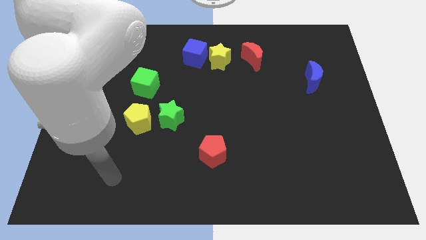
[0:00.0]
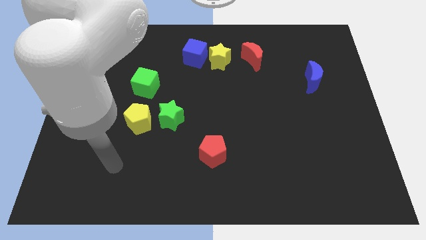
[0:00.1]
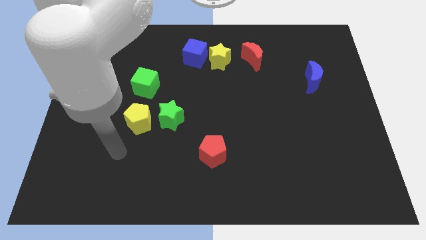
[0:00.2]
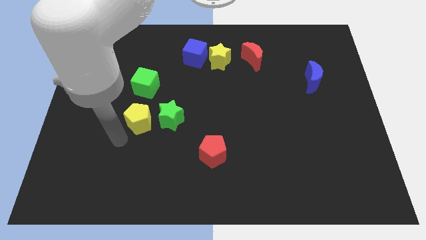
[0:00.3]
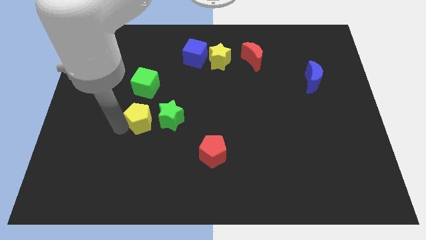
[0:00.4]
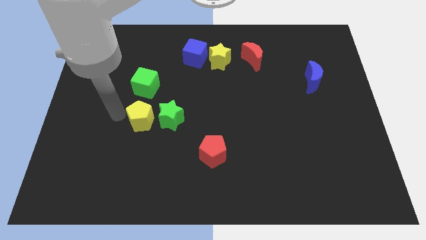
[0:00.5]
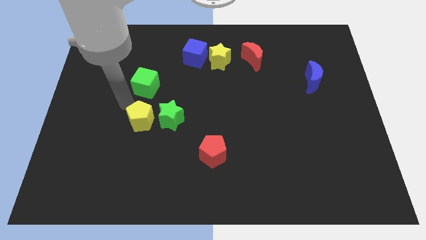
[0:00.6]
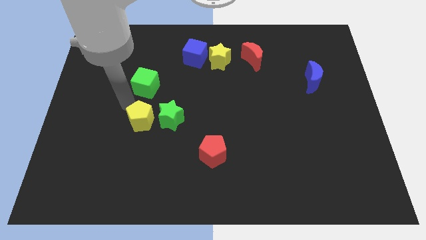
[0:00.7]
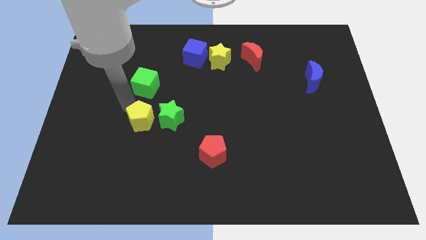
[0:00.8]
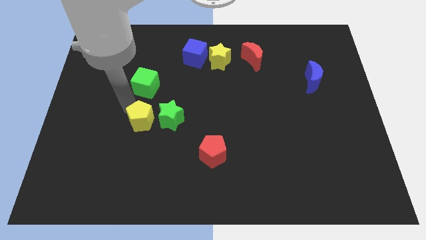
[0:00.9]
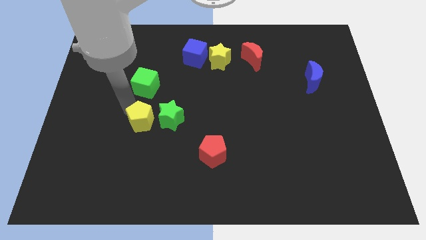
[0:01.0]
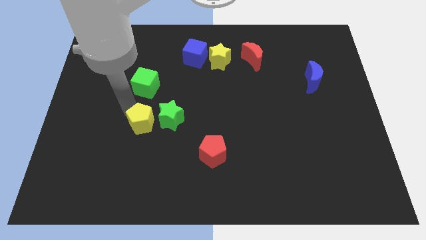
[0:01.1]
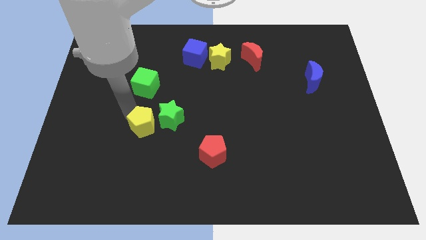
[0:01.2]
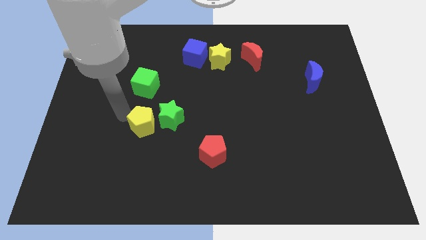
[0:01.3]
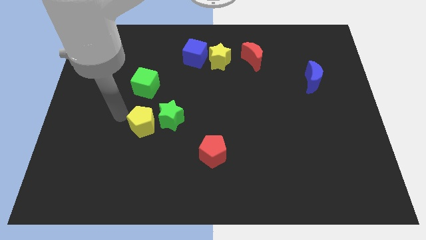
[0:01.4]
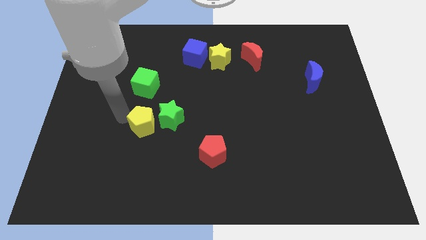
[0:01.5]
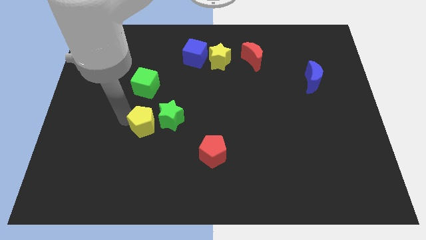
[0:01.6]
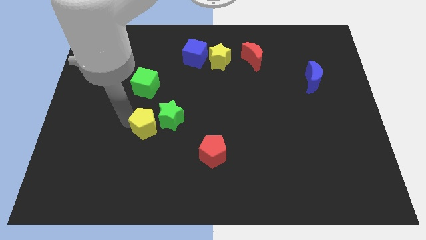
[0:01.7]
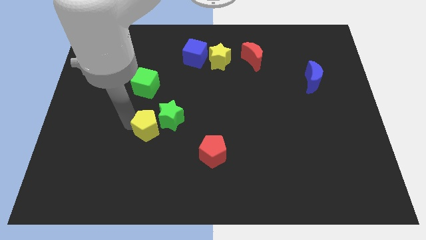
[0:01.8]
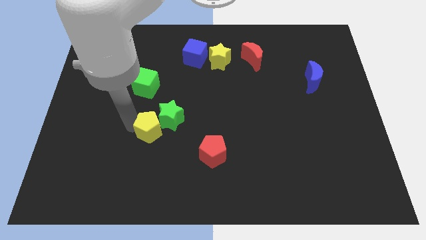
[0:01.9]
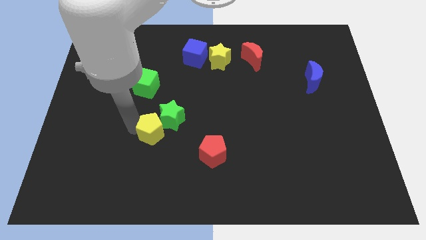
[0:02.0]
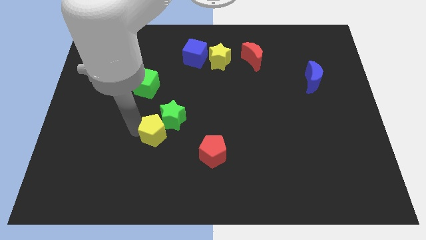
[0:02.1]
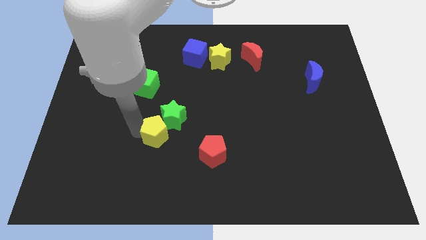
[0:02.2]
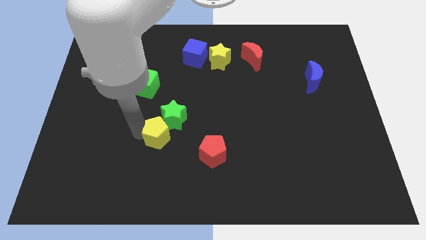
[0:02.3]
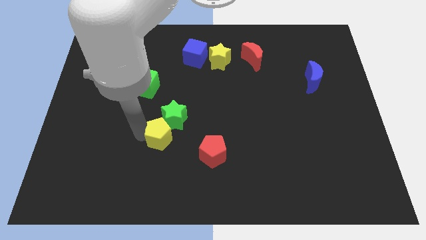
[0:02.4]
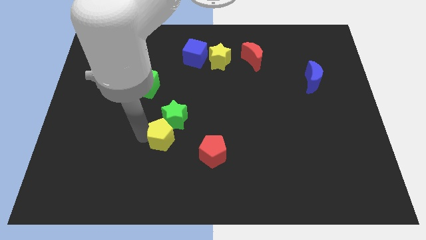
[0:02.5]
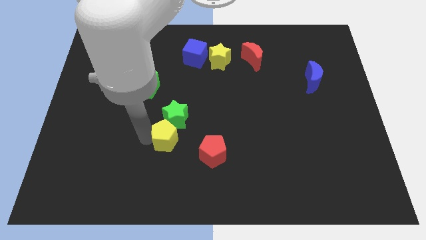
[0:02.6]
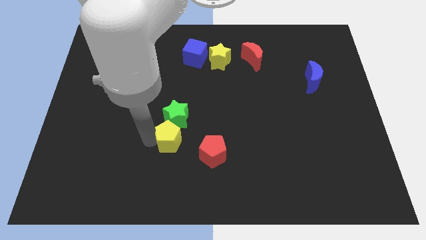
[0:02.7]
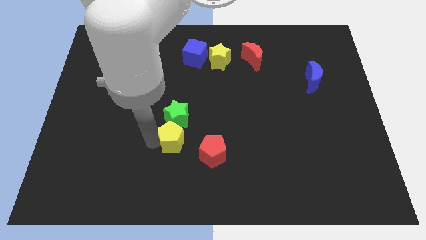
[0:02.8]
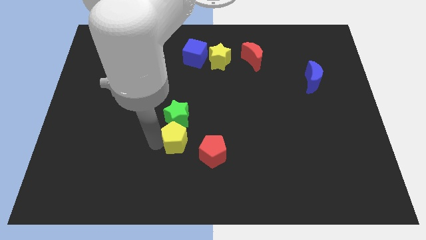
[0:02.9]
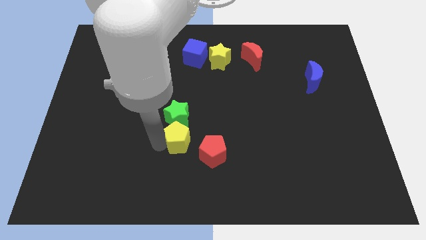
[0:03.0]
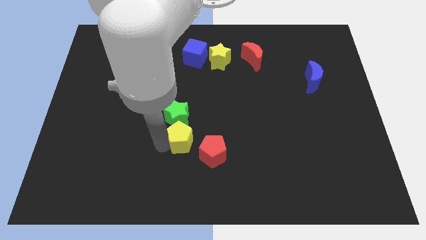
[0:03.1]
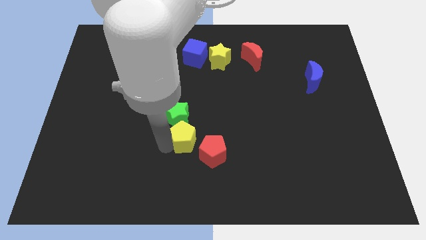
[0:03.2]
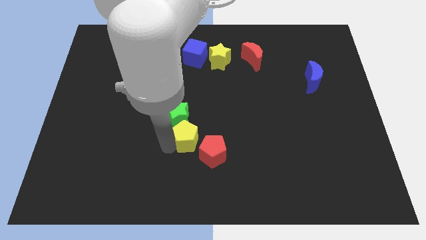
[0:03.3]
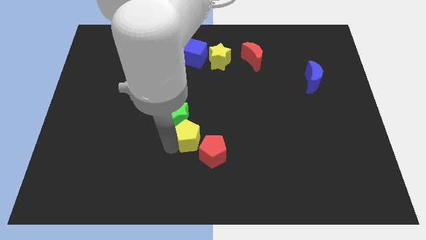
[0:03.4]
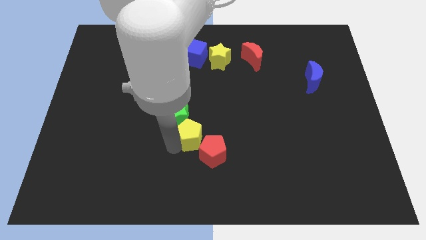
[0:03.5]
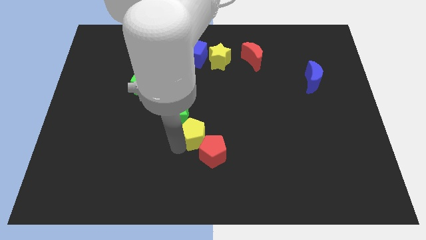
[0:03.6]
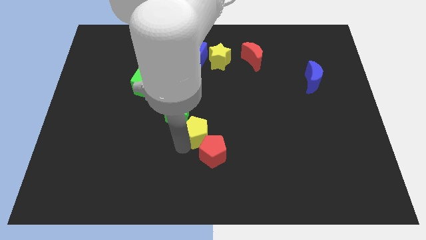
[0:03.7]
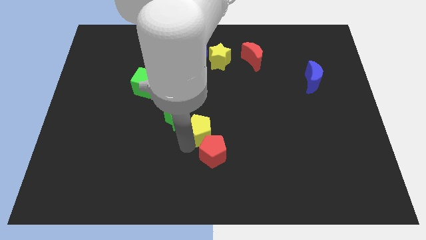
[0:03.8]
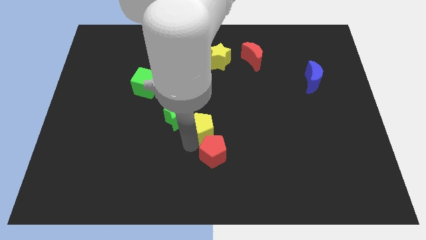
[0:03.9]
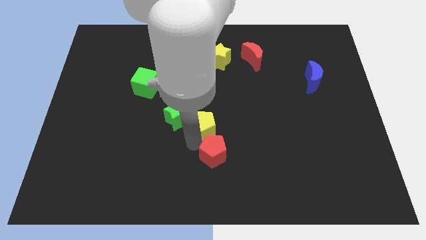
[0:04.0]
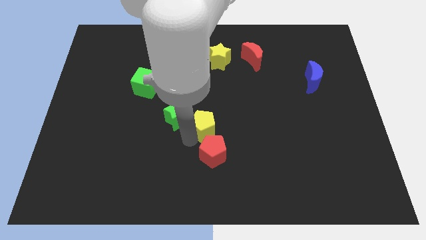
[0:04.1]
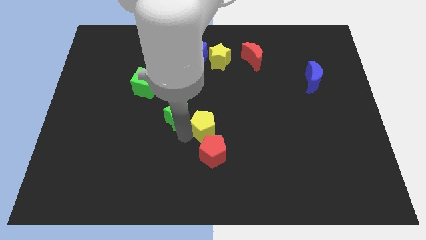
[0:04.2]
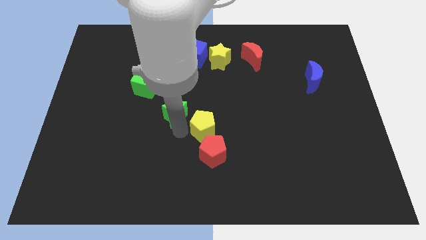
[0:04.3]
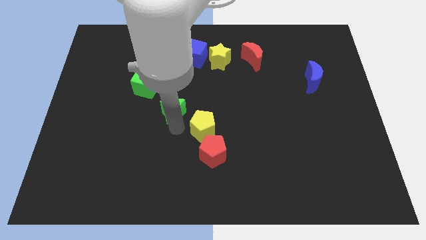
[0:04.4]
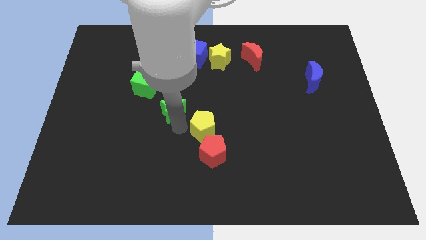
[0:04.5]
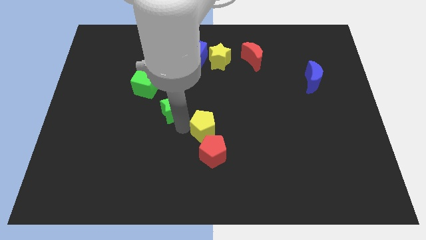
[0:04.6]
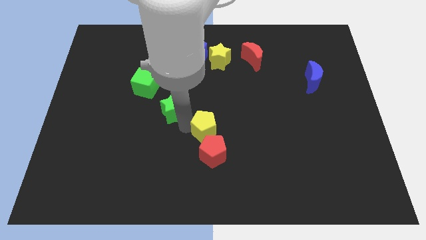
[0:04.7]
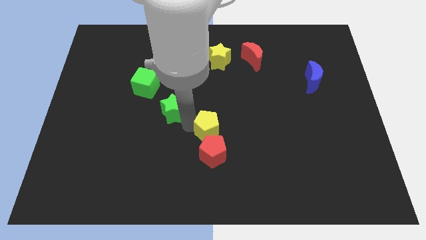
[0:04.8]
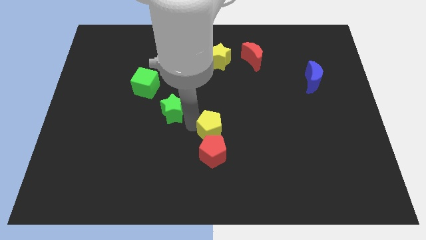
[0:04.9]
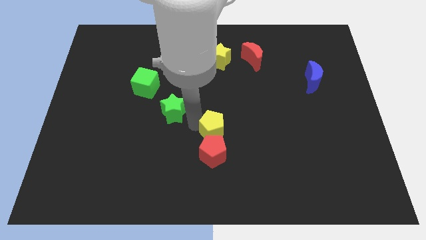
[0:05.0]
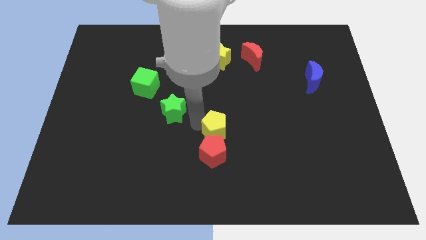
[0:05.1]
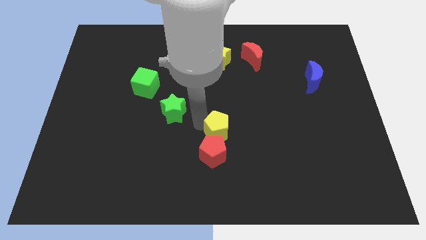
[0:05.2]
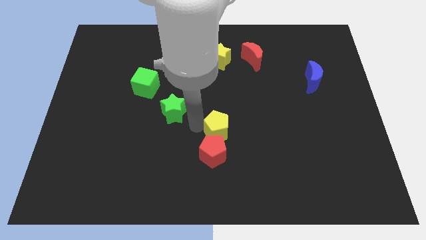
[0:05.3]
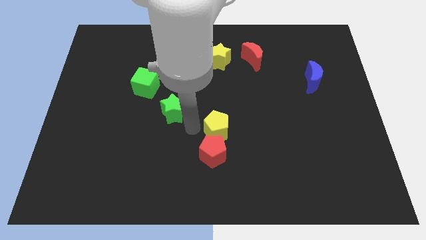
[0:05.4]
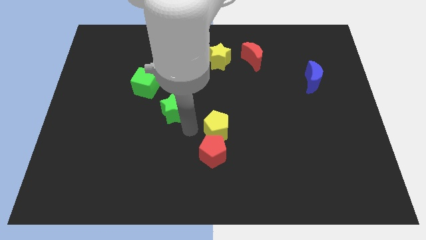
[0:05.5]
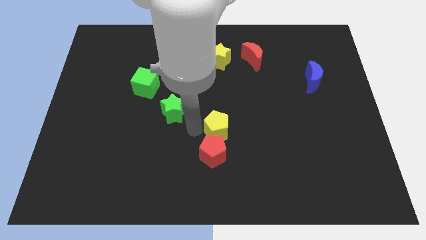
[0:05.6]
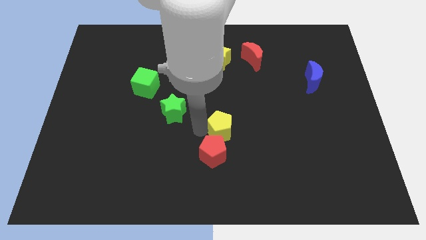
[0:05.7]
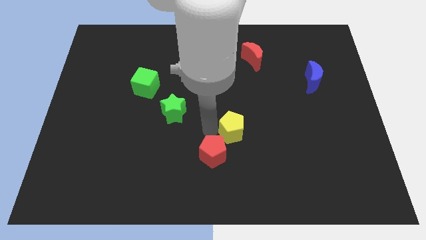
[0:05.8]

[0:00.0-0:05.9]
slide the yellow pentagon to the right

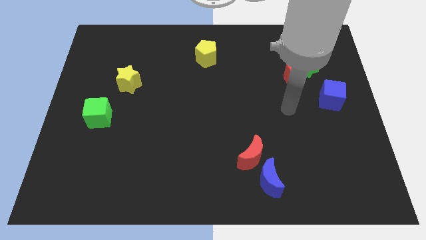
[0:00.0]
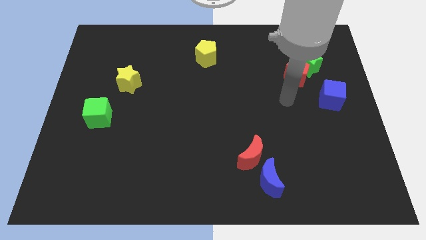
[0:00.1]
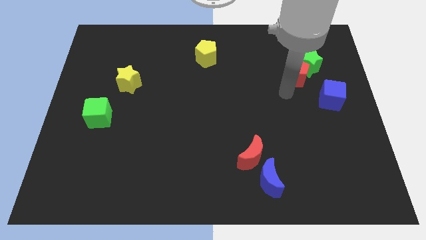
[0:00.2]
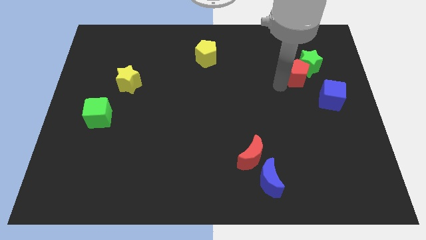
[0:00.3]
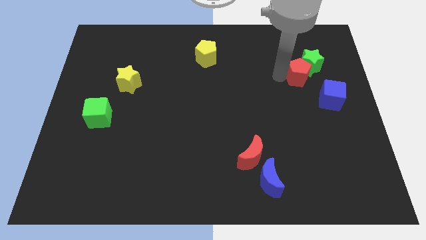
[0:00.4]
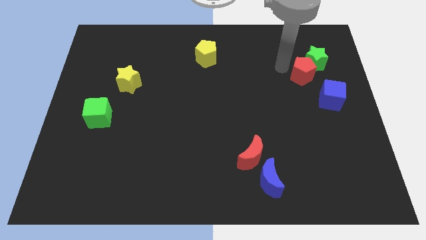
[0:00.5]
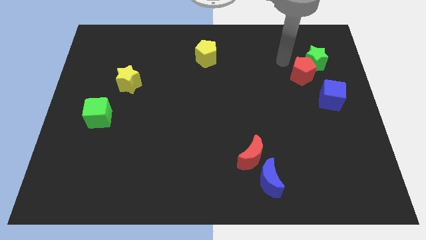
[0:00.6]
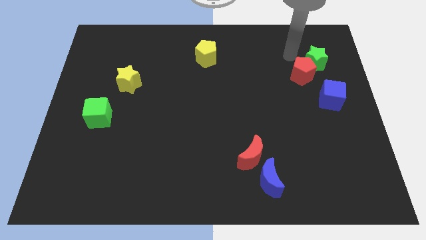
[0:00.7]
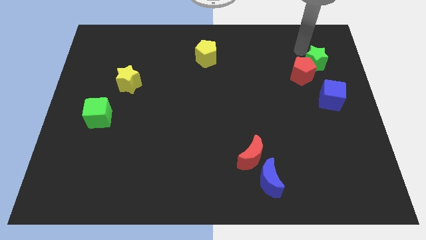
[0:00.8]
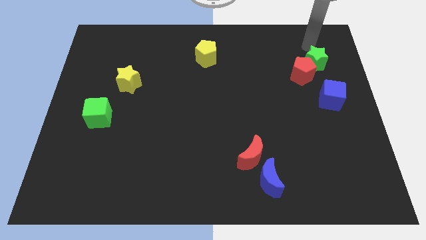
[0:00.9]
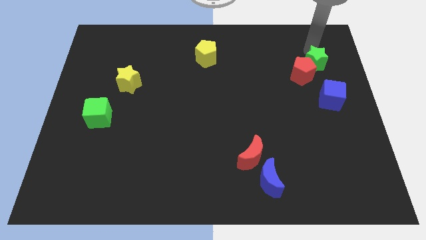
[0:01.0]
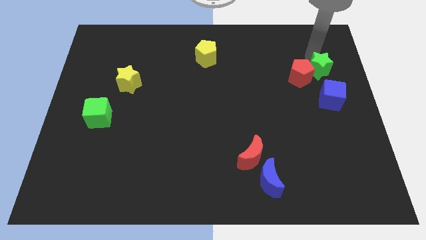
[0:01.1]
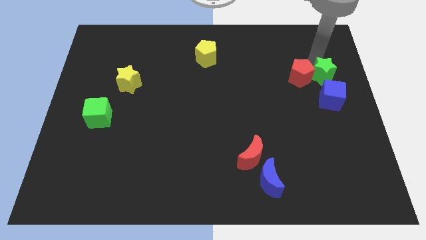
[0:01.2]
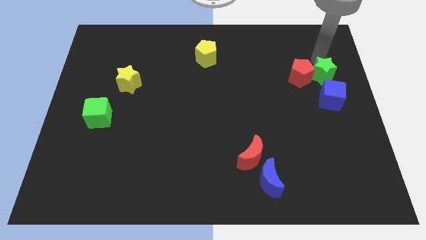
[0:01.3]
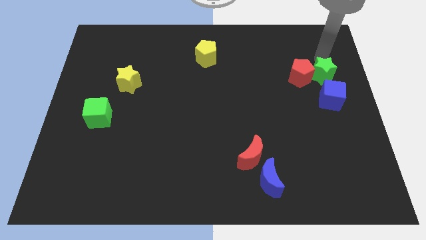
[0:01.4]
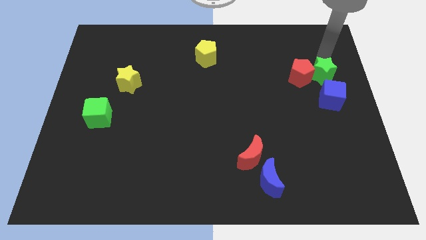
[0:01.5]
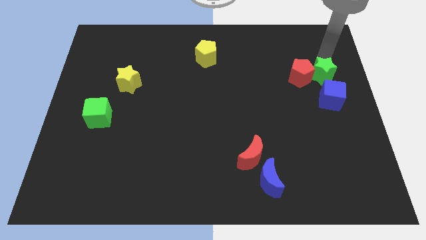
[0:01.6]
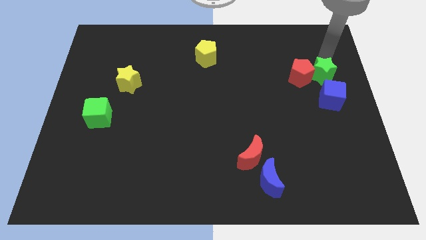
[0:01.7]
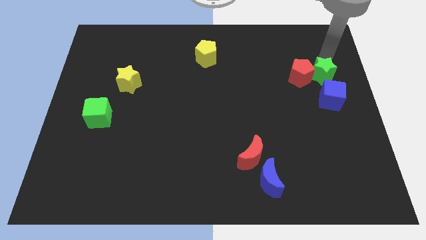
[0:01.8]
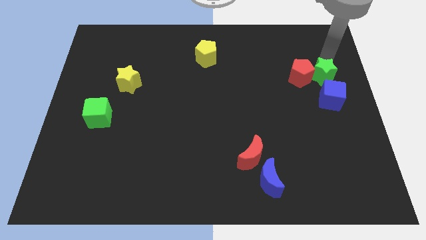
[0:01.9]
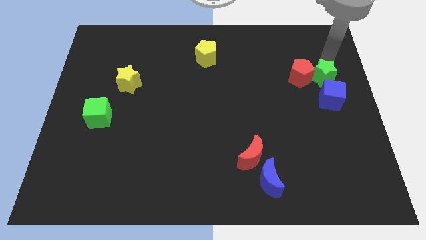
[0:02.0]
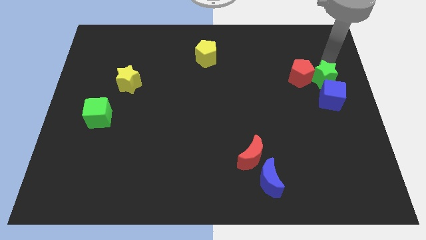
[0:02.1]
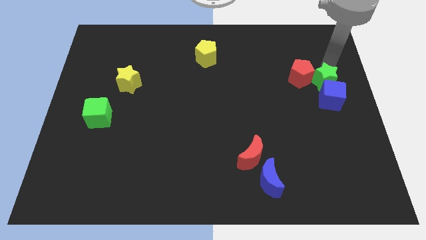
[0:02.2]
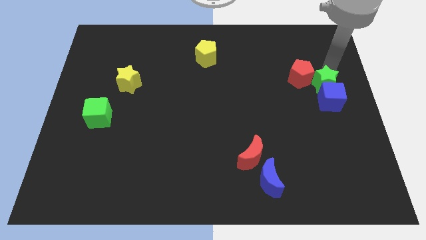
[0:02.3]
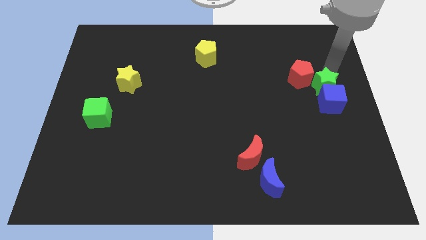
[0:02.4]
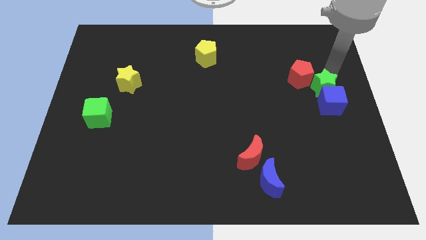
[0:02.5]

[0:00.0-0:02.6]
slide the green star down slightly
